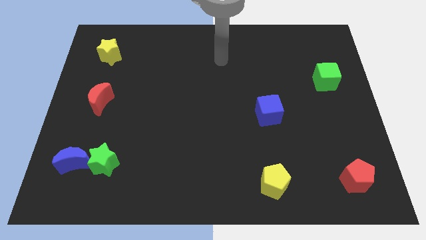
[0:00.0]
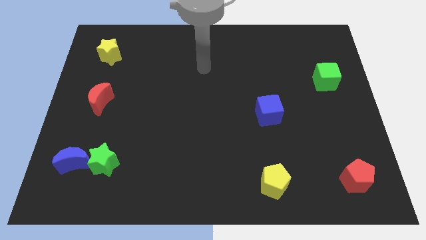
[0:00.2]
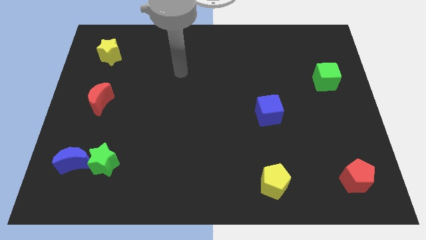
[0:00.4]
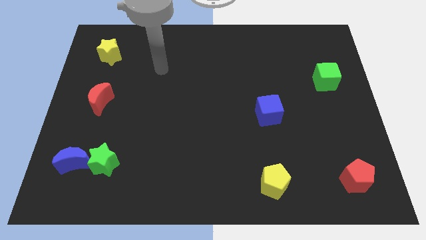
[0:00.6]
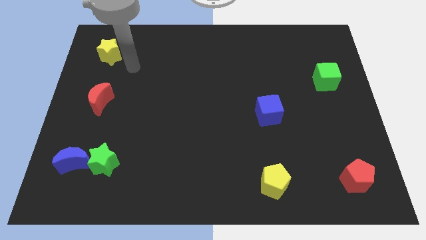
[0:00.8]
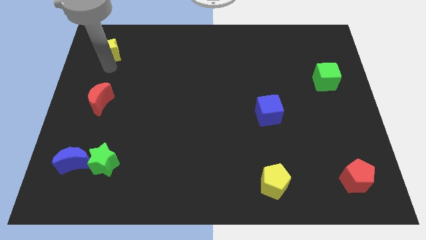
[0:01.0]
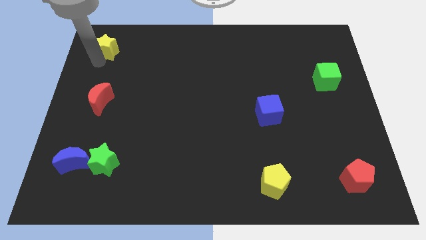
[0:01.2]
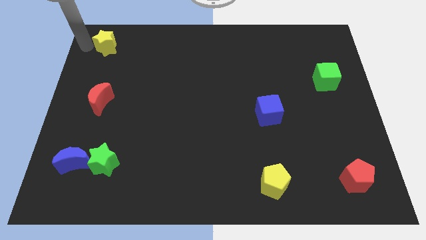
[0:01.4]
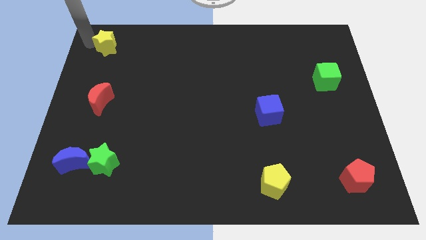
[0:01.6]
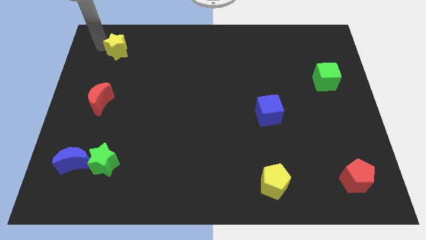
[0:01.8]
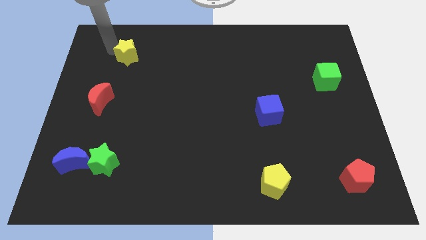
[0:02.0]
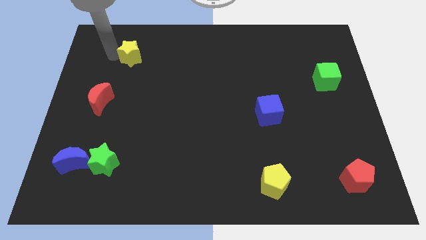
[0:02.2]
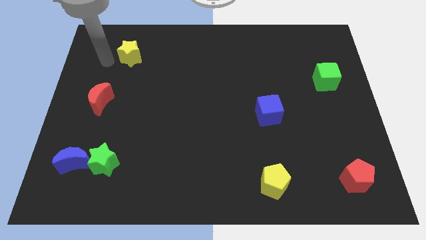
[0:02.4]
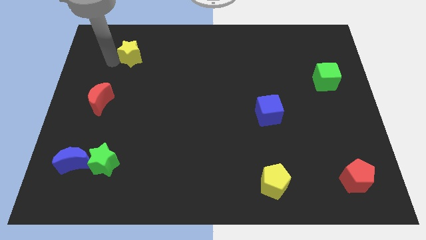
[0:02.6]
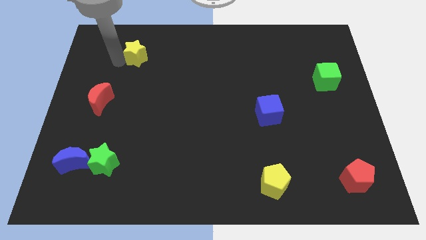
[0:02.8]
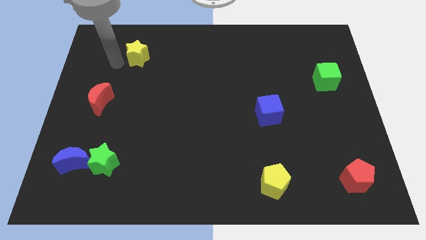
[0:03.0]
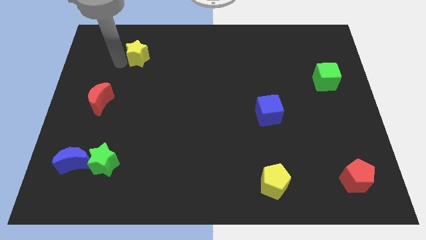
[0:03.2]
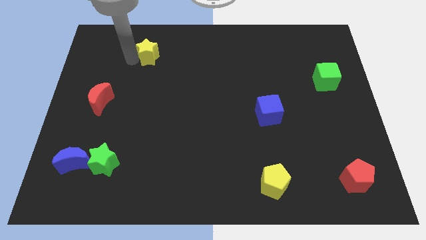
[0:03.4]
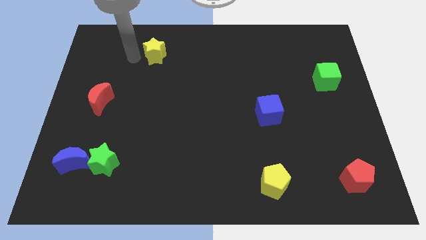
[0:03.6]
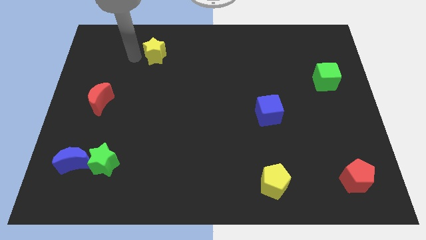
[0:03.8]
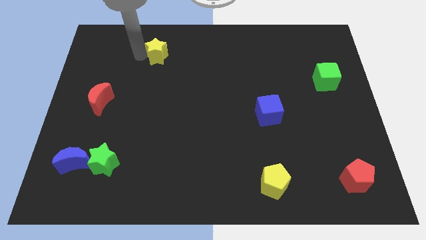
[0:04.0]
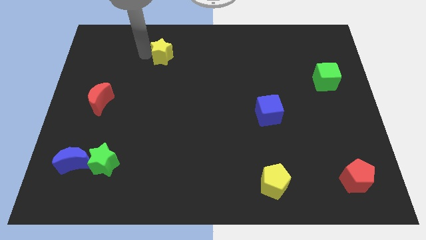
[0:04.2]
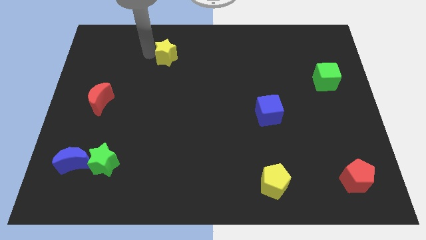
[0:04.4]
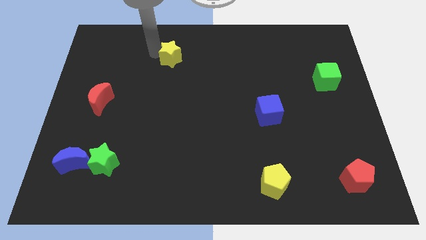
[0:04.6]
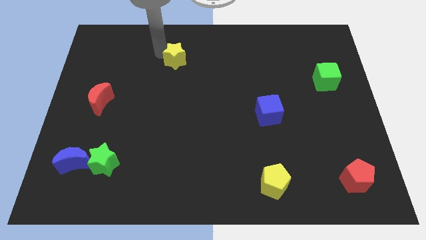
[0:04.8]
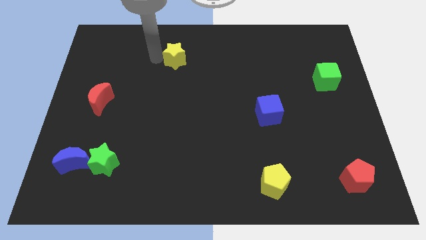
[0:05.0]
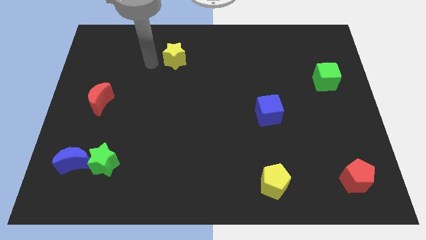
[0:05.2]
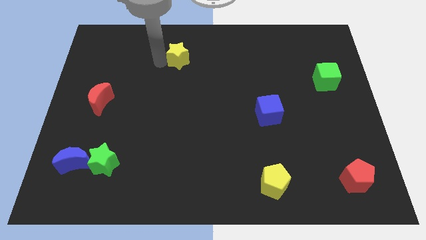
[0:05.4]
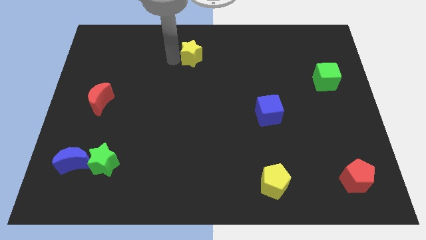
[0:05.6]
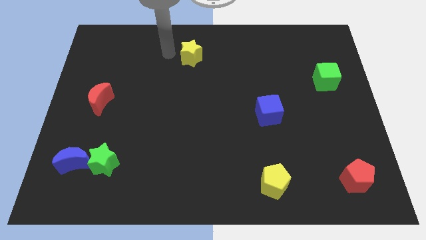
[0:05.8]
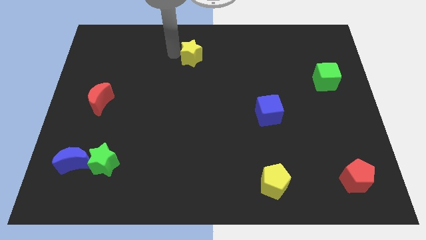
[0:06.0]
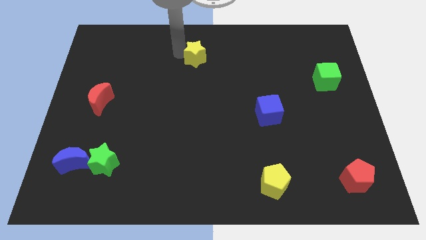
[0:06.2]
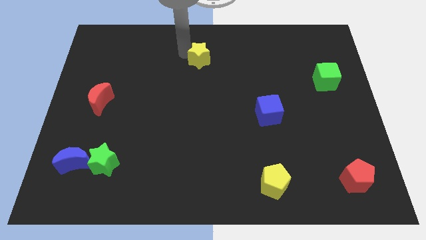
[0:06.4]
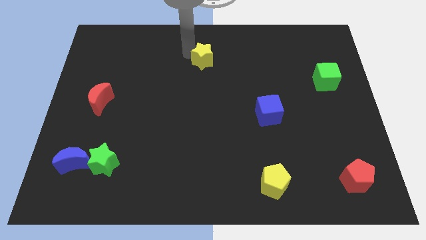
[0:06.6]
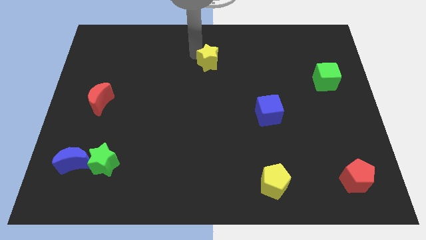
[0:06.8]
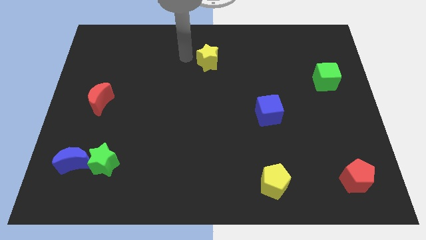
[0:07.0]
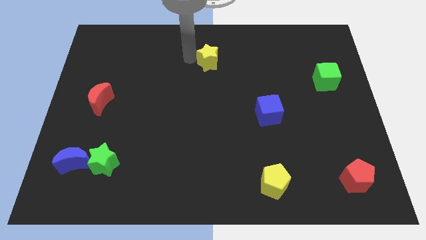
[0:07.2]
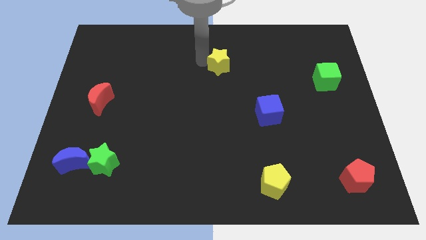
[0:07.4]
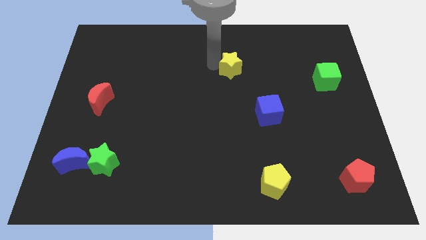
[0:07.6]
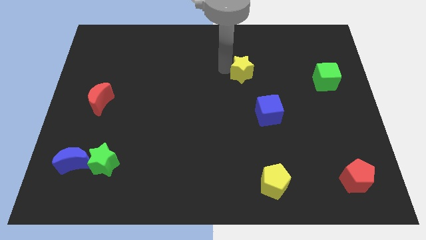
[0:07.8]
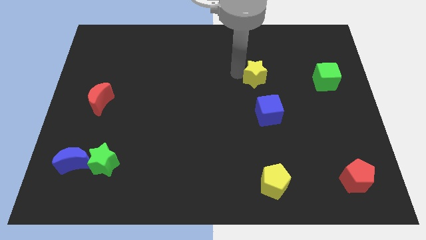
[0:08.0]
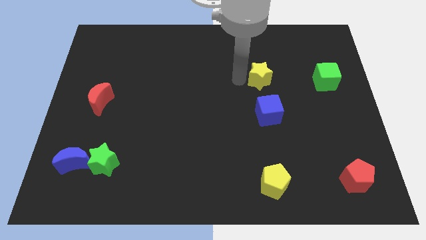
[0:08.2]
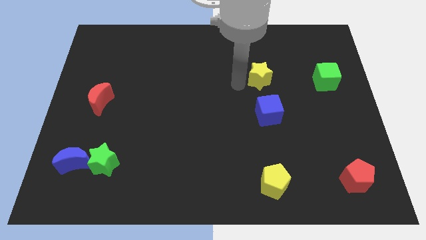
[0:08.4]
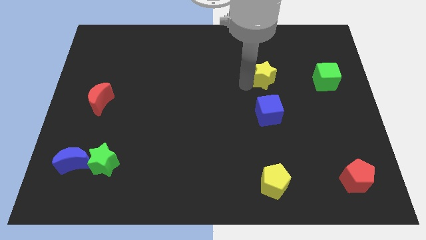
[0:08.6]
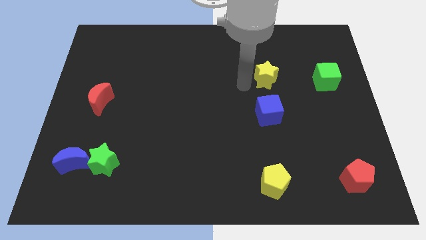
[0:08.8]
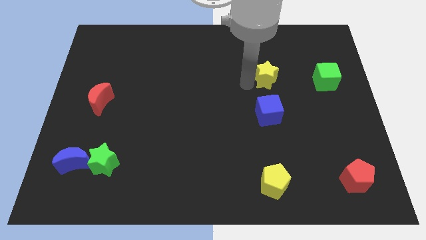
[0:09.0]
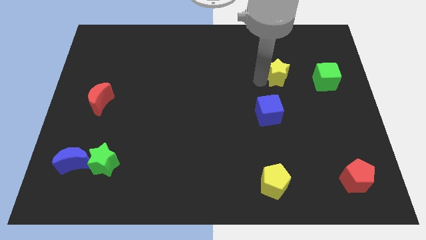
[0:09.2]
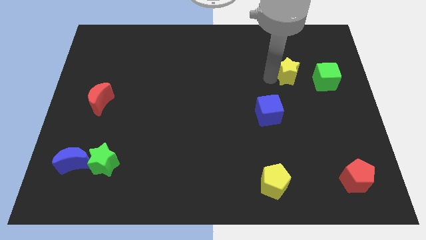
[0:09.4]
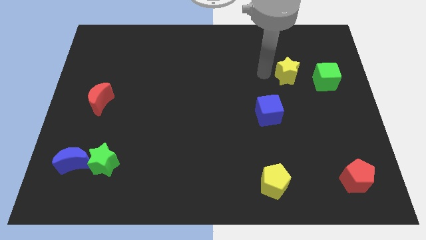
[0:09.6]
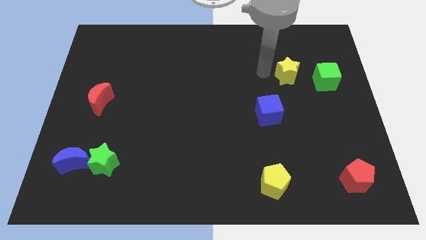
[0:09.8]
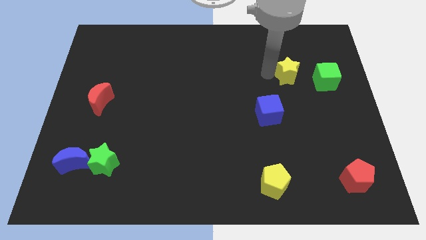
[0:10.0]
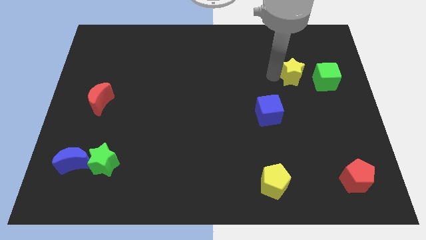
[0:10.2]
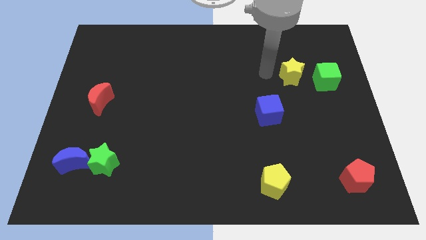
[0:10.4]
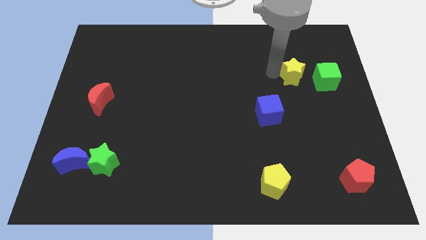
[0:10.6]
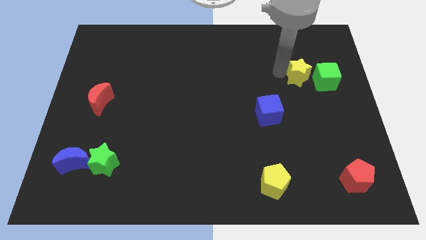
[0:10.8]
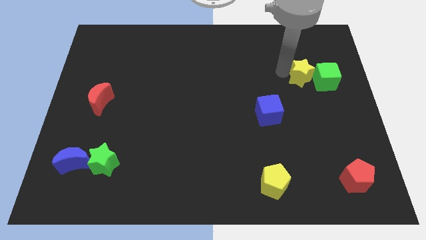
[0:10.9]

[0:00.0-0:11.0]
move the yellow star close to the green cube

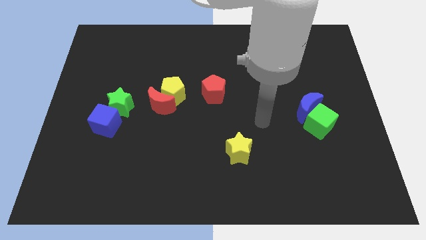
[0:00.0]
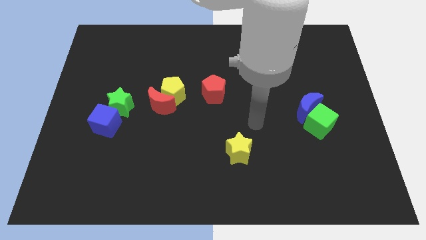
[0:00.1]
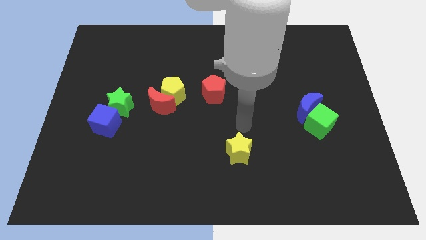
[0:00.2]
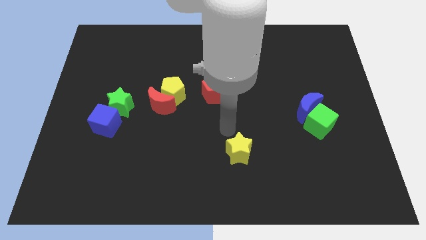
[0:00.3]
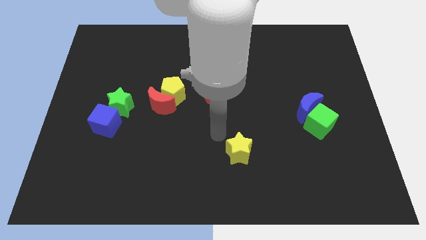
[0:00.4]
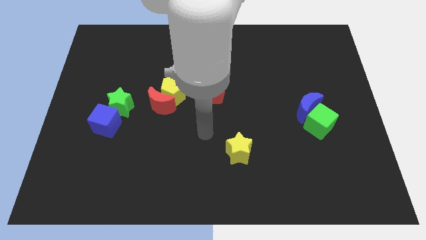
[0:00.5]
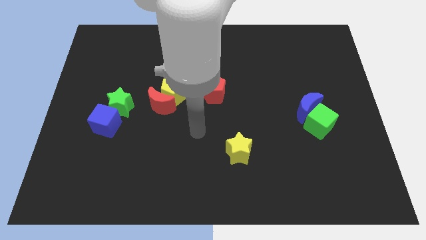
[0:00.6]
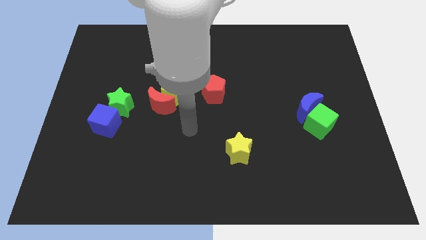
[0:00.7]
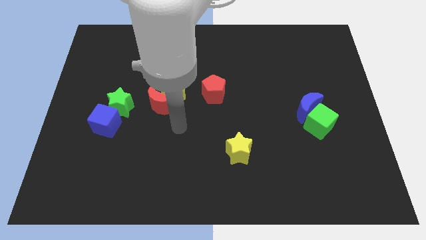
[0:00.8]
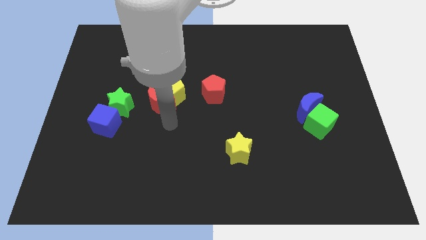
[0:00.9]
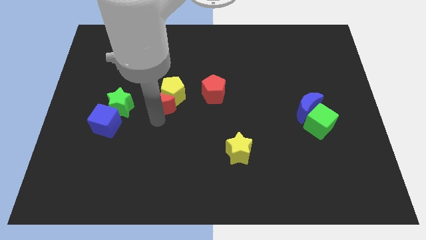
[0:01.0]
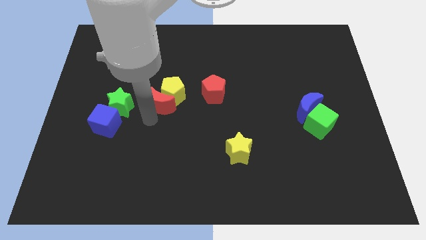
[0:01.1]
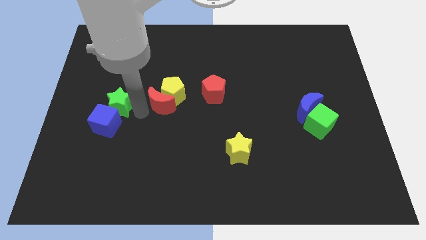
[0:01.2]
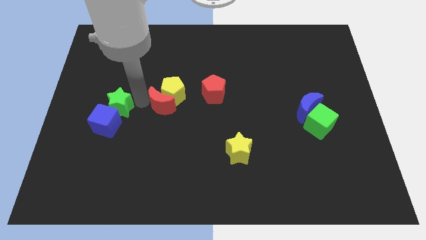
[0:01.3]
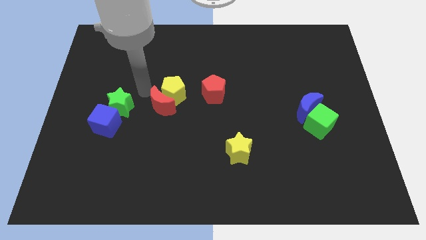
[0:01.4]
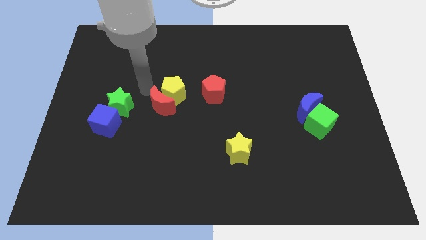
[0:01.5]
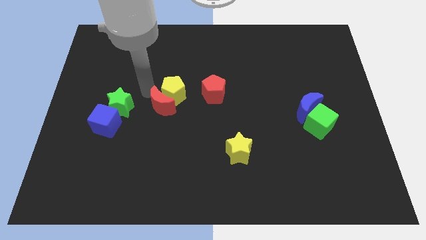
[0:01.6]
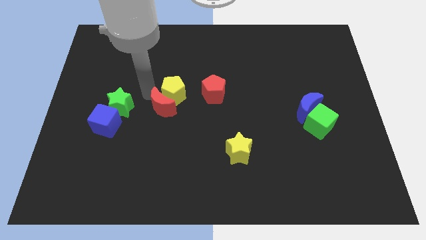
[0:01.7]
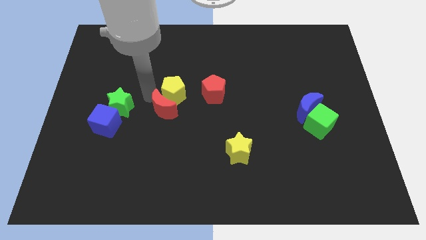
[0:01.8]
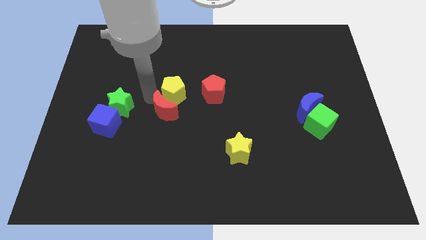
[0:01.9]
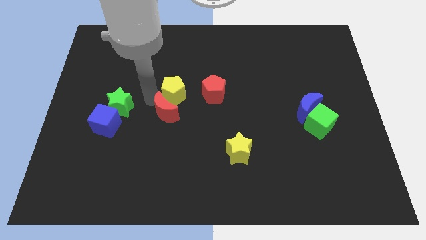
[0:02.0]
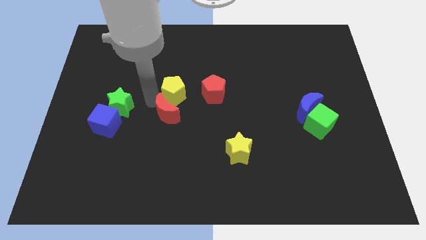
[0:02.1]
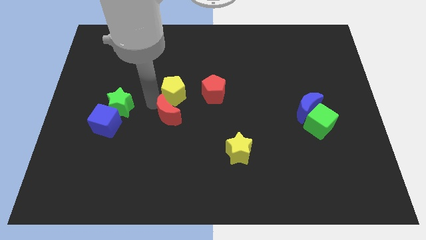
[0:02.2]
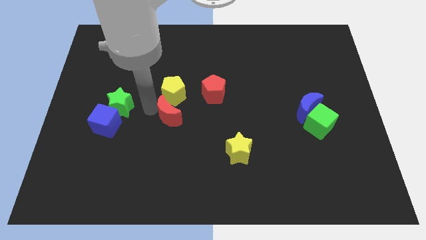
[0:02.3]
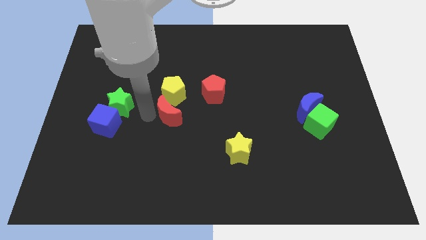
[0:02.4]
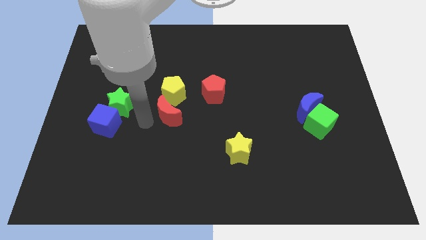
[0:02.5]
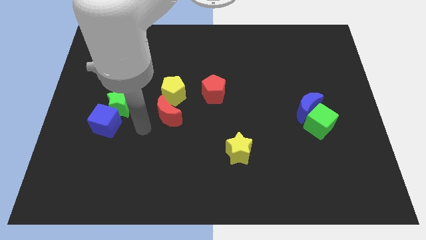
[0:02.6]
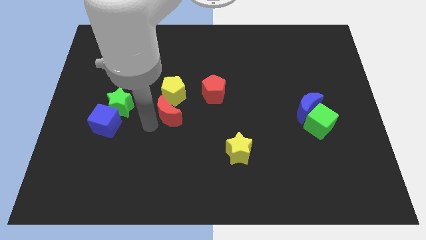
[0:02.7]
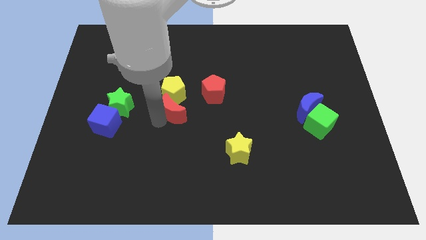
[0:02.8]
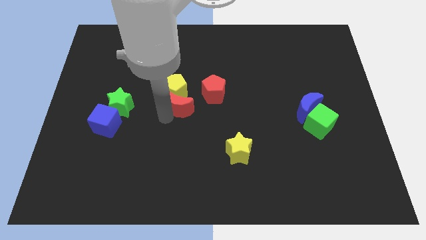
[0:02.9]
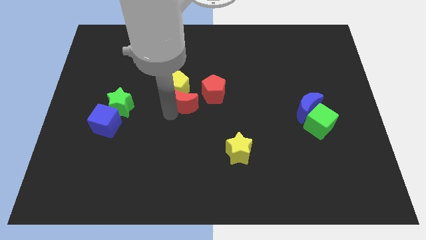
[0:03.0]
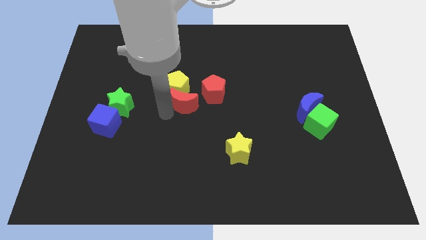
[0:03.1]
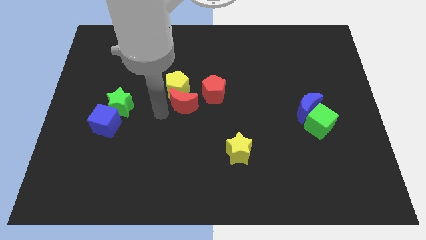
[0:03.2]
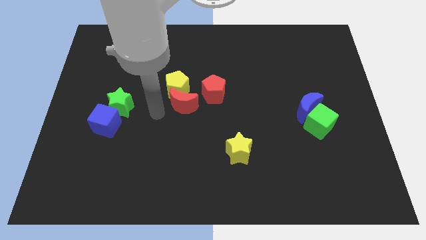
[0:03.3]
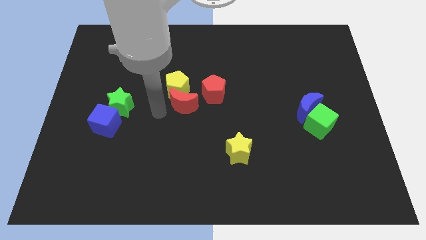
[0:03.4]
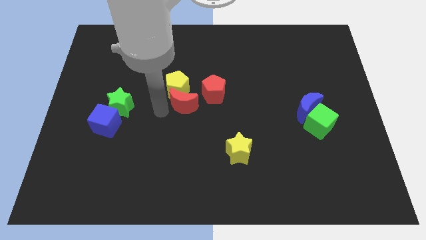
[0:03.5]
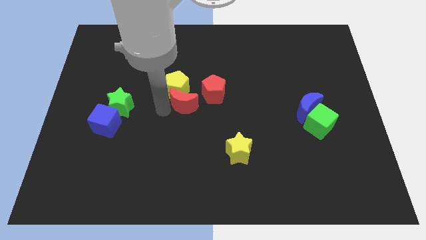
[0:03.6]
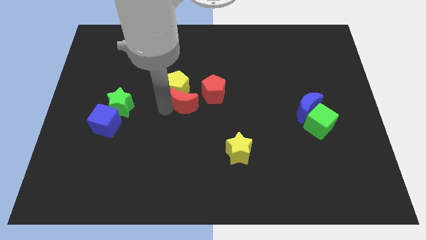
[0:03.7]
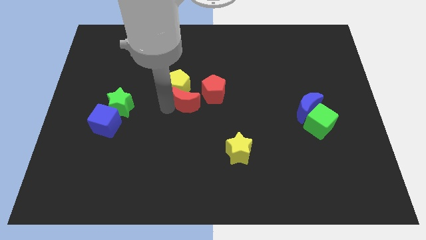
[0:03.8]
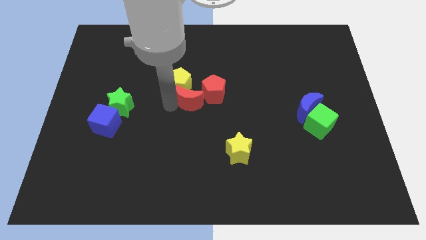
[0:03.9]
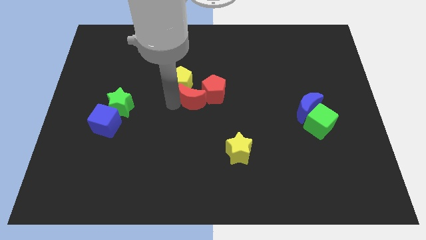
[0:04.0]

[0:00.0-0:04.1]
slide the red moon to the red pentagon
